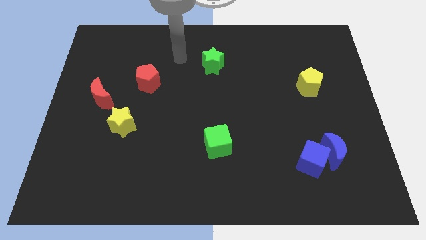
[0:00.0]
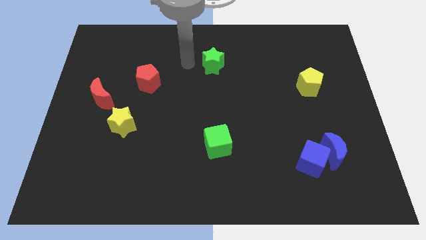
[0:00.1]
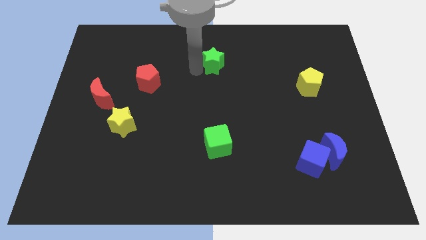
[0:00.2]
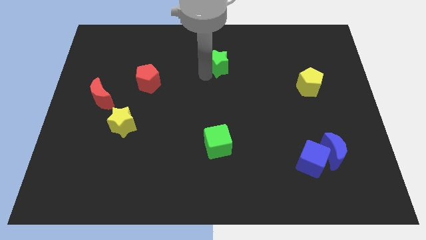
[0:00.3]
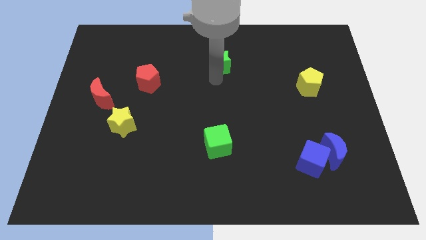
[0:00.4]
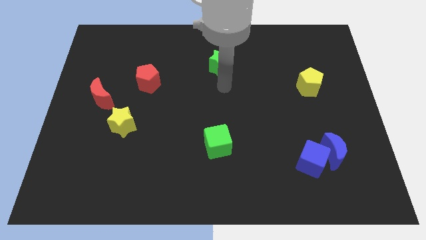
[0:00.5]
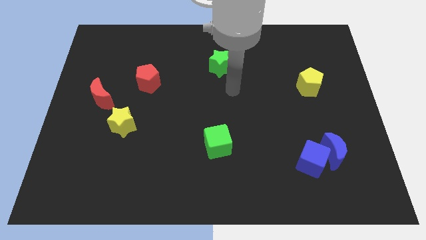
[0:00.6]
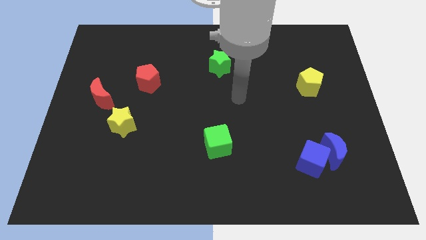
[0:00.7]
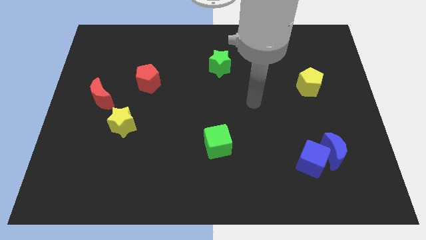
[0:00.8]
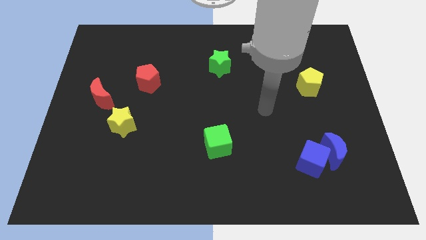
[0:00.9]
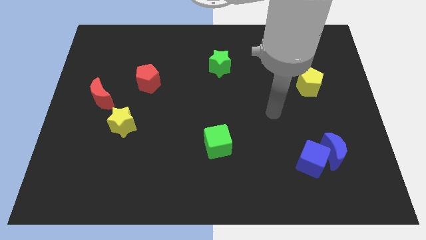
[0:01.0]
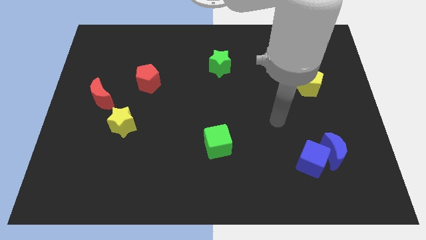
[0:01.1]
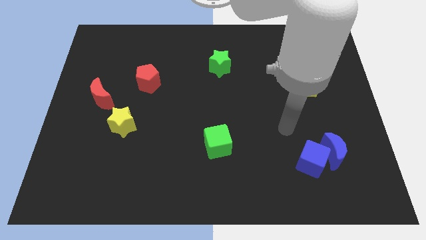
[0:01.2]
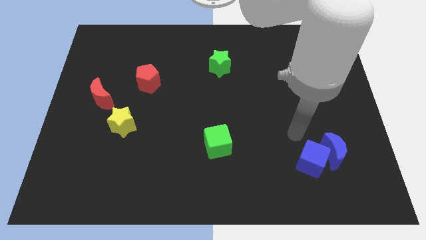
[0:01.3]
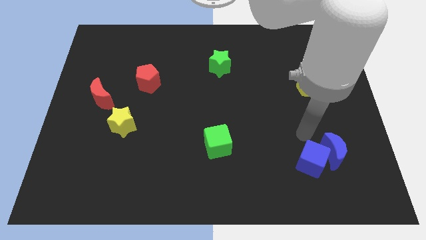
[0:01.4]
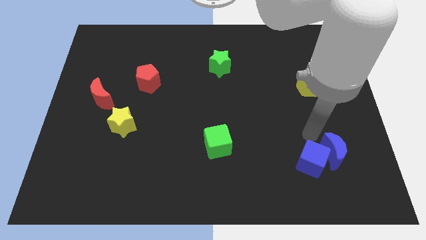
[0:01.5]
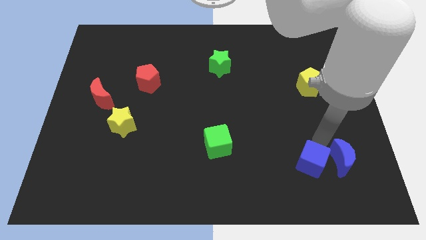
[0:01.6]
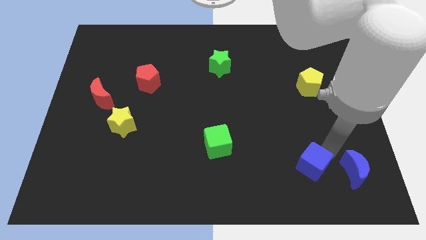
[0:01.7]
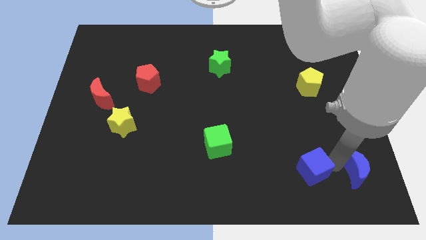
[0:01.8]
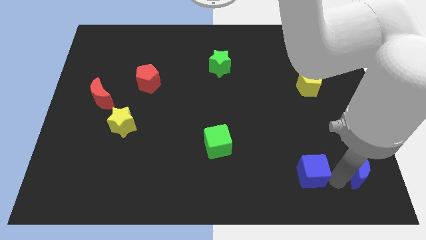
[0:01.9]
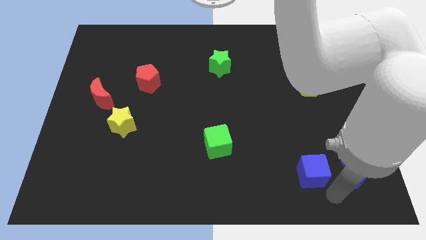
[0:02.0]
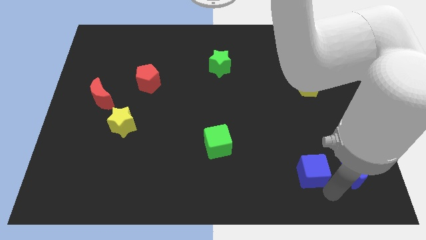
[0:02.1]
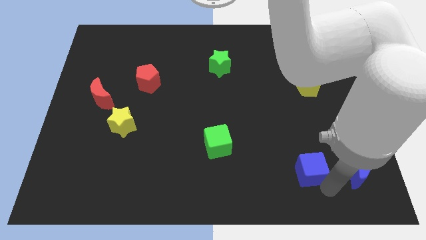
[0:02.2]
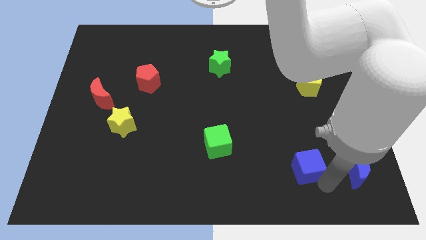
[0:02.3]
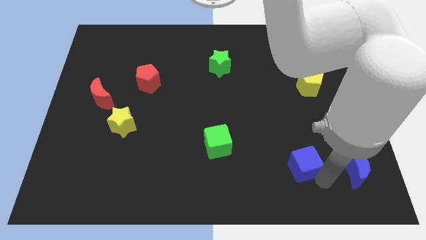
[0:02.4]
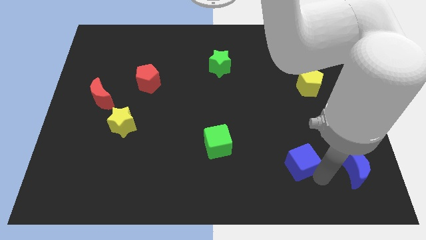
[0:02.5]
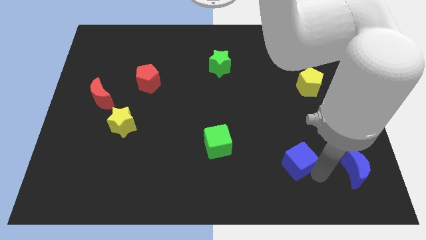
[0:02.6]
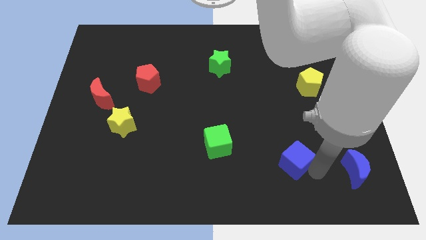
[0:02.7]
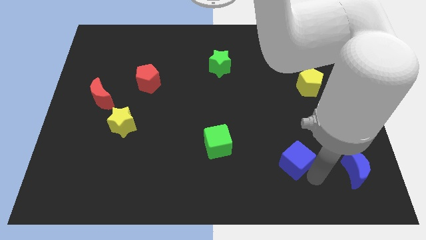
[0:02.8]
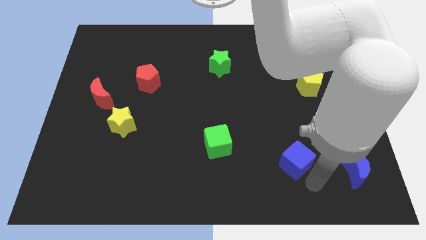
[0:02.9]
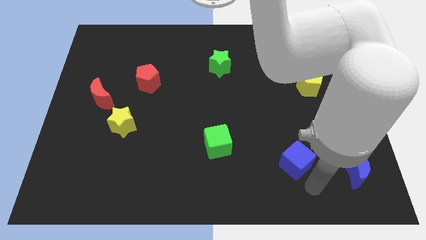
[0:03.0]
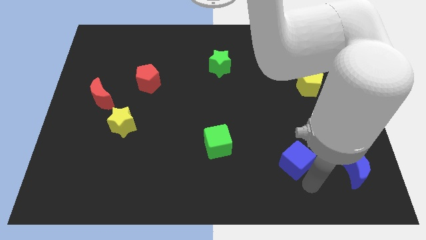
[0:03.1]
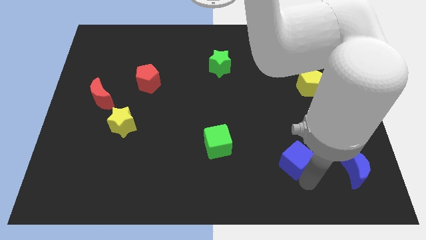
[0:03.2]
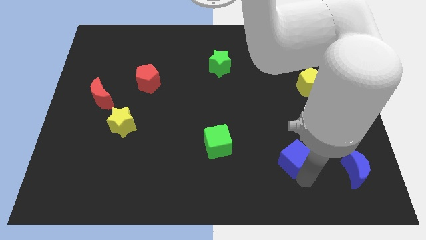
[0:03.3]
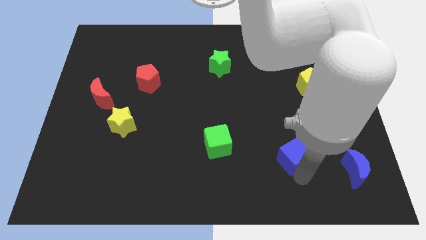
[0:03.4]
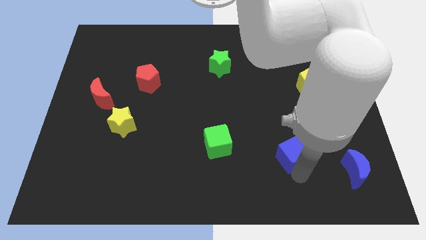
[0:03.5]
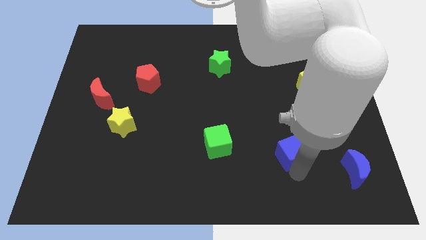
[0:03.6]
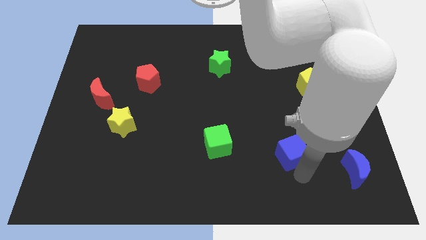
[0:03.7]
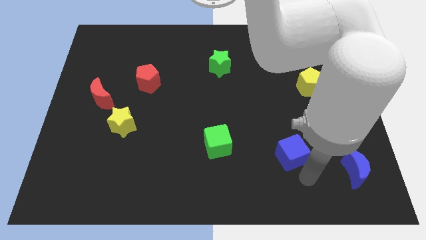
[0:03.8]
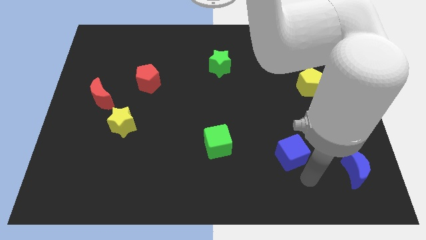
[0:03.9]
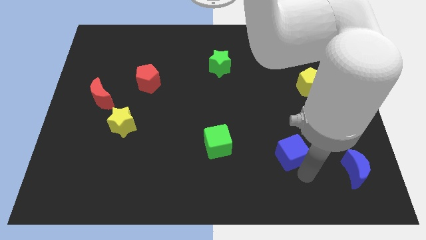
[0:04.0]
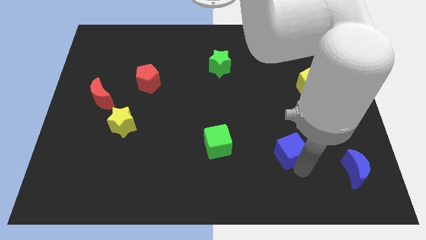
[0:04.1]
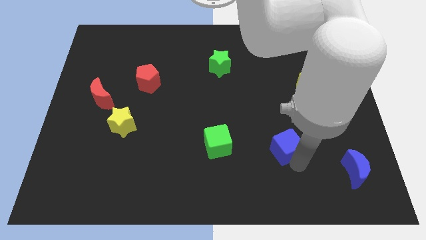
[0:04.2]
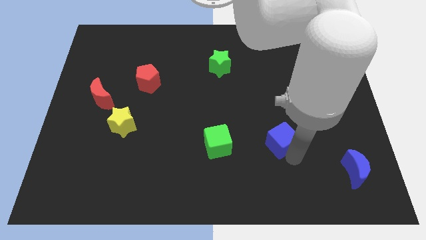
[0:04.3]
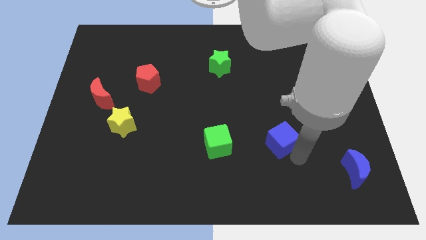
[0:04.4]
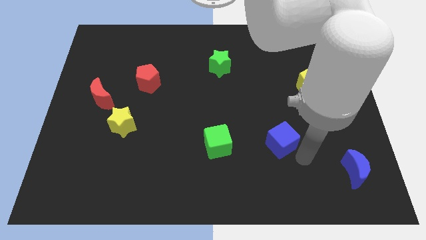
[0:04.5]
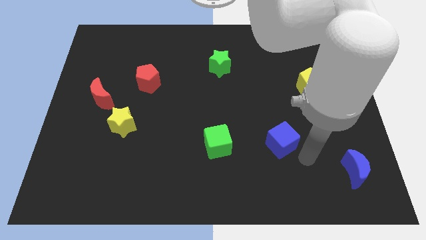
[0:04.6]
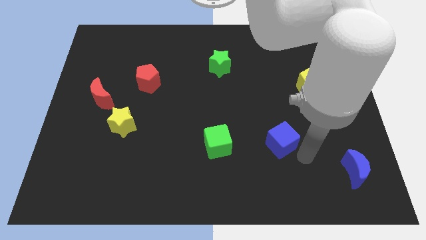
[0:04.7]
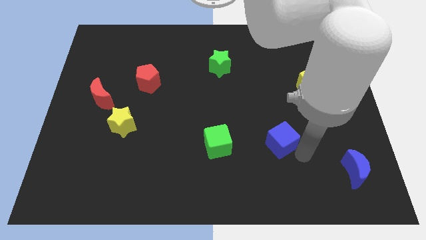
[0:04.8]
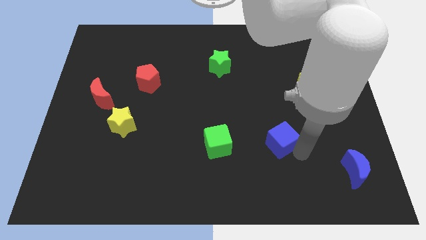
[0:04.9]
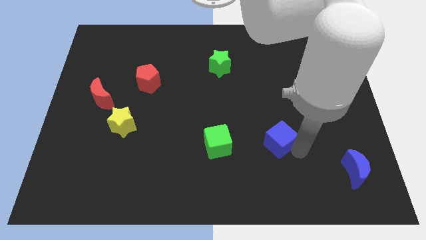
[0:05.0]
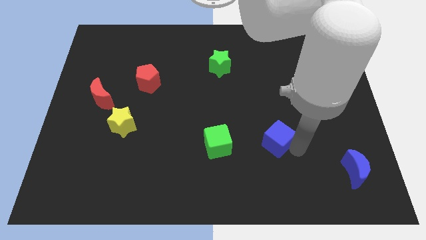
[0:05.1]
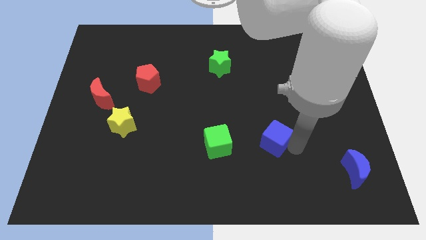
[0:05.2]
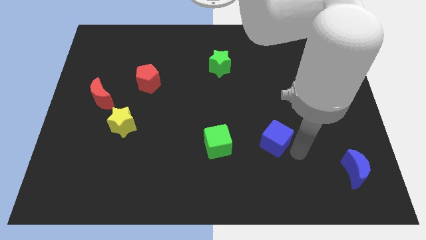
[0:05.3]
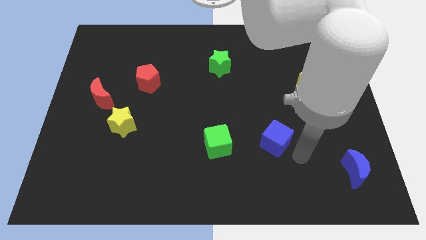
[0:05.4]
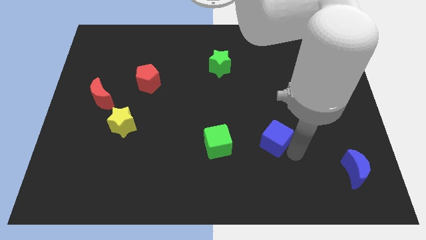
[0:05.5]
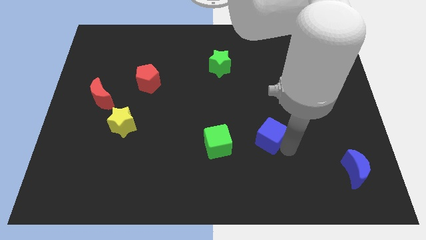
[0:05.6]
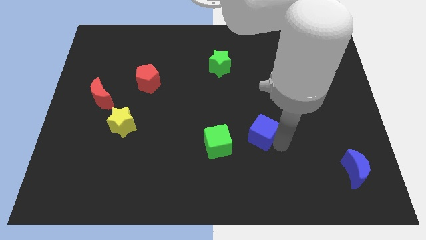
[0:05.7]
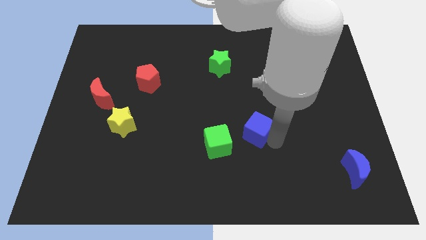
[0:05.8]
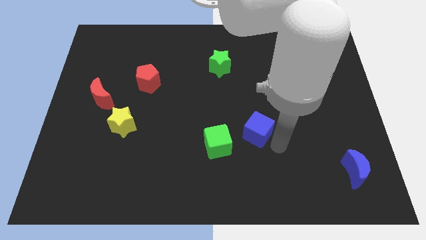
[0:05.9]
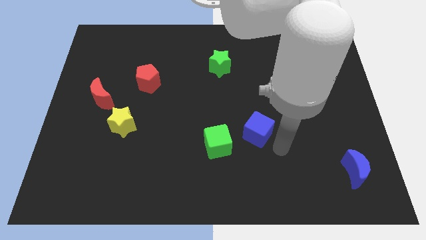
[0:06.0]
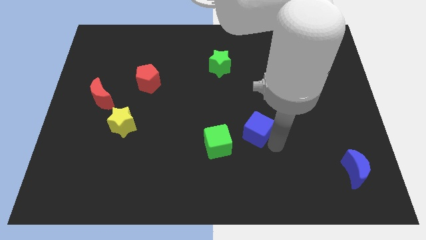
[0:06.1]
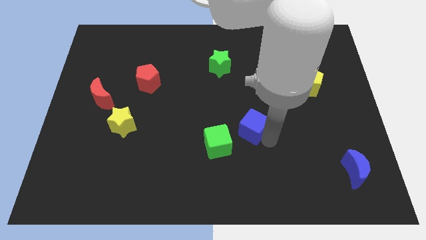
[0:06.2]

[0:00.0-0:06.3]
slide the blue cube to the center of the board
